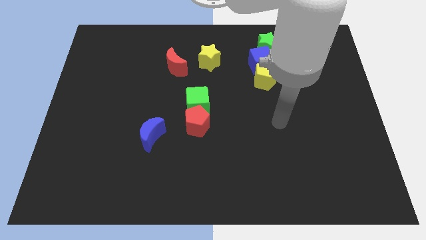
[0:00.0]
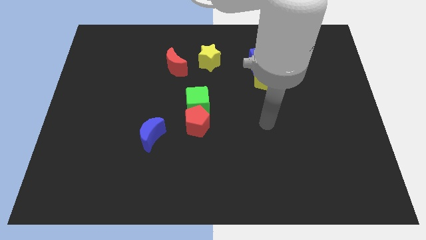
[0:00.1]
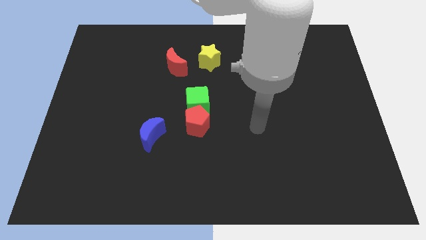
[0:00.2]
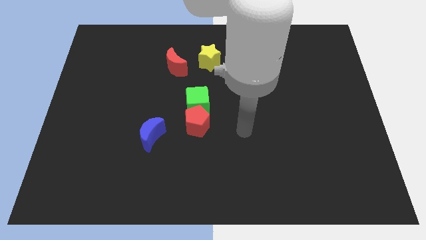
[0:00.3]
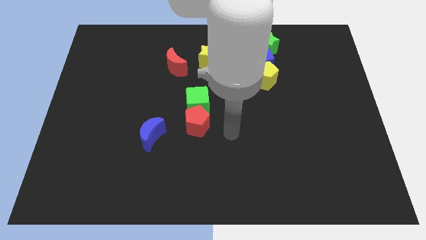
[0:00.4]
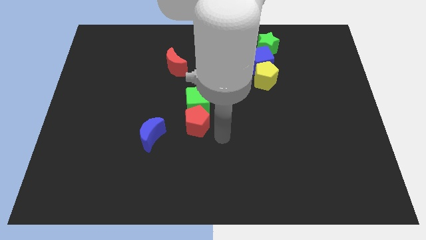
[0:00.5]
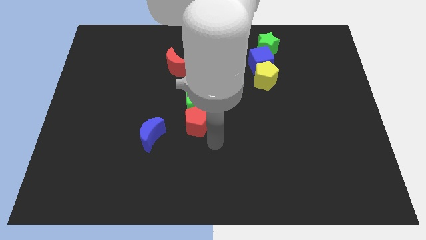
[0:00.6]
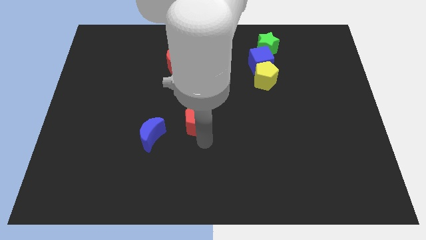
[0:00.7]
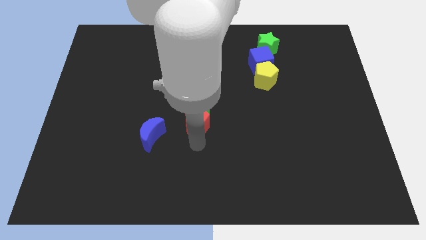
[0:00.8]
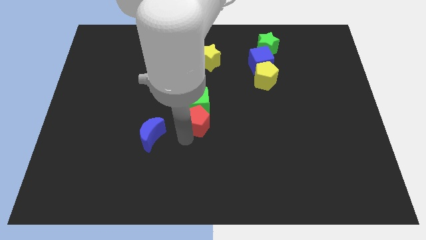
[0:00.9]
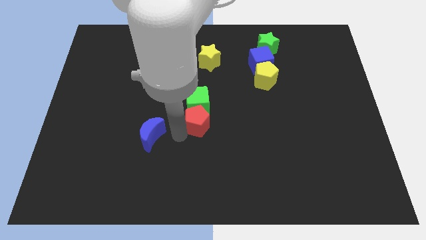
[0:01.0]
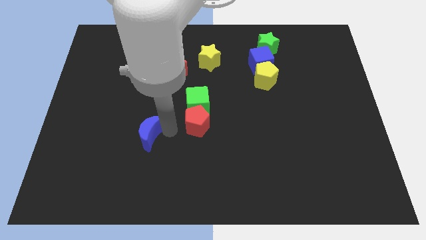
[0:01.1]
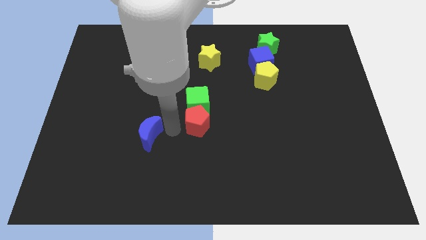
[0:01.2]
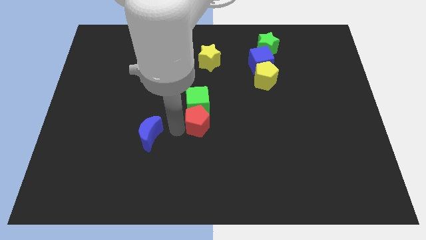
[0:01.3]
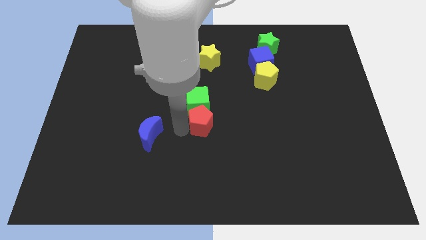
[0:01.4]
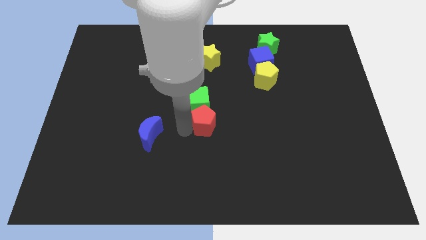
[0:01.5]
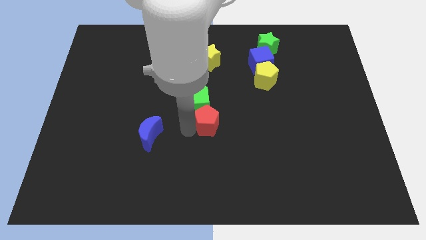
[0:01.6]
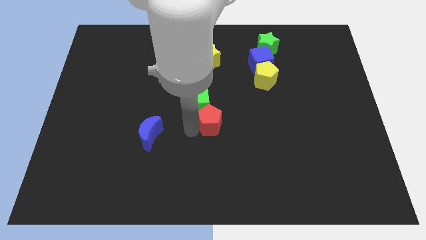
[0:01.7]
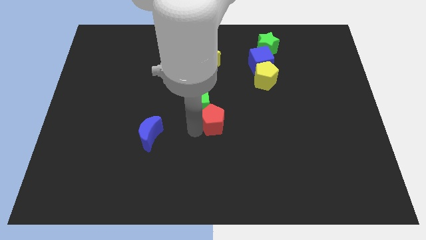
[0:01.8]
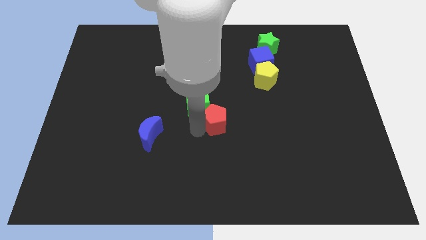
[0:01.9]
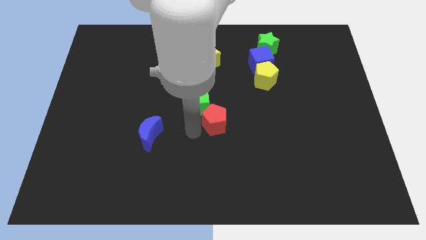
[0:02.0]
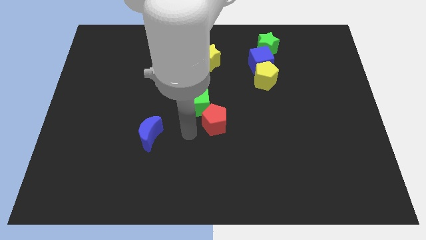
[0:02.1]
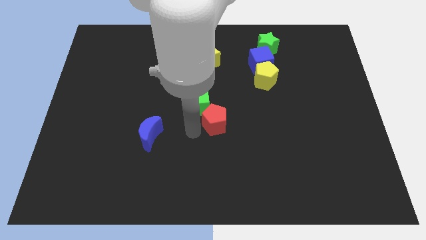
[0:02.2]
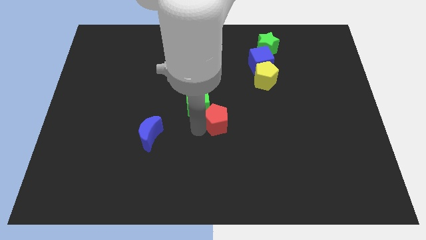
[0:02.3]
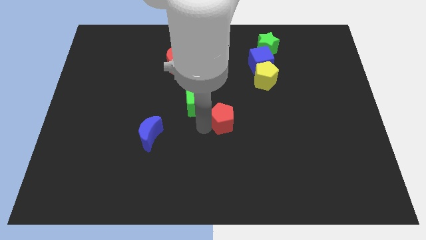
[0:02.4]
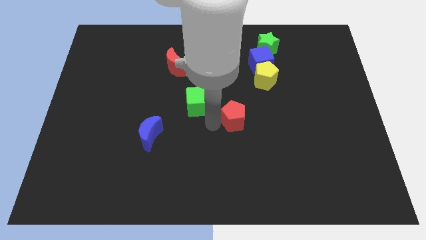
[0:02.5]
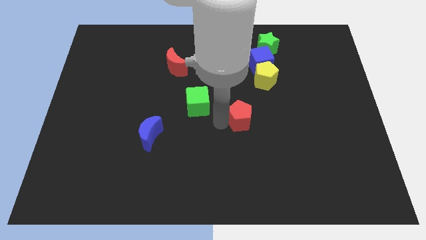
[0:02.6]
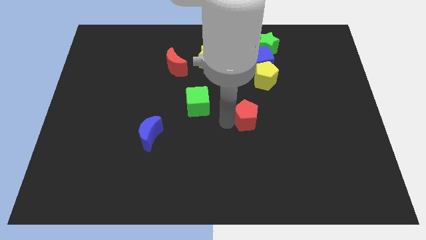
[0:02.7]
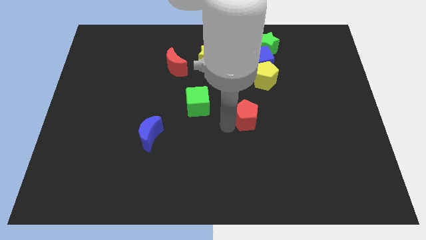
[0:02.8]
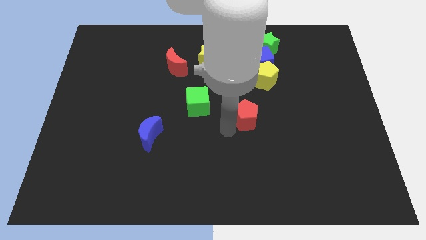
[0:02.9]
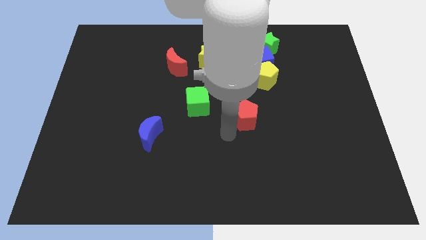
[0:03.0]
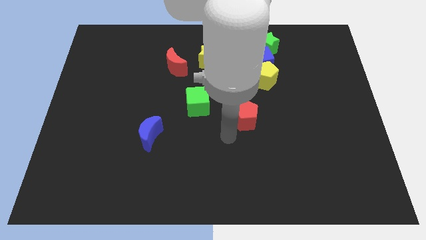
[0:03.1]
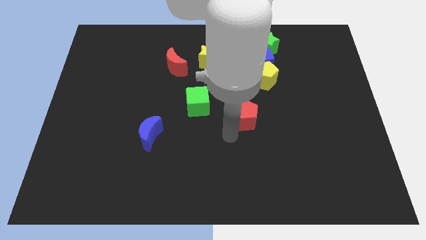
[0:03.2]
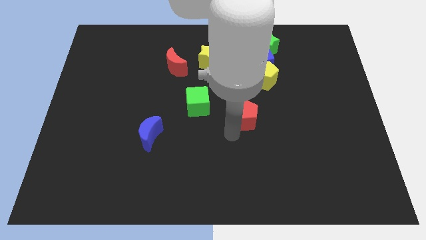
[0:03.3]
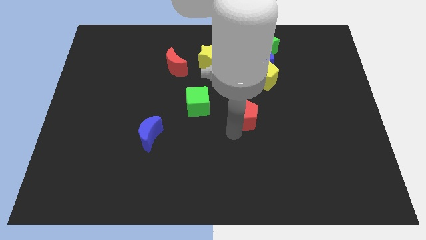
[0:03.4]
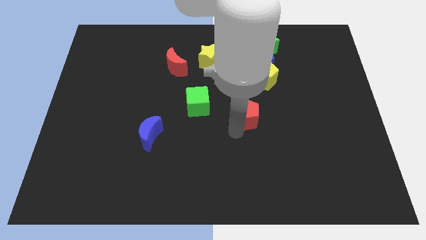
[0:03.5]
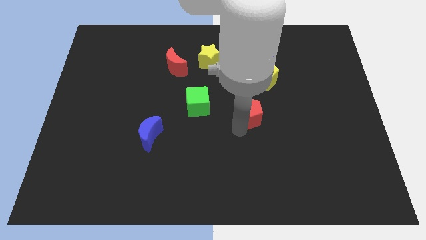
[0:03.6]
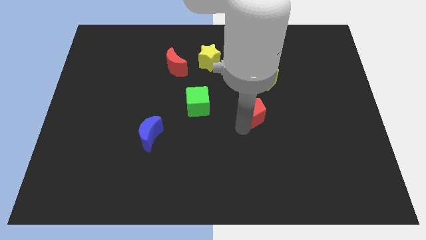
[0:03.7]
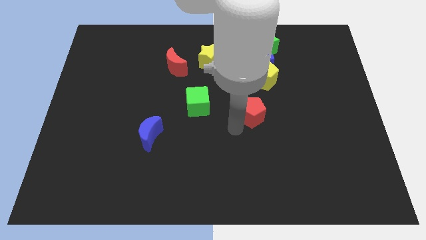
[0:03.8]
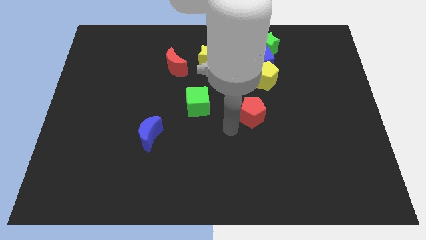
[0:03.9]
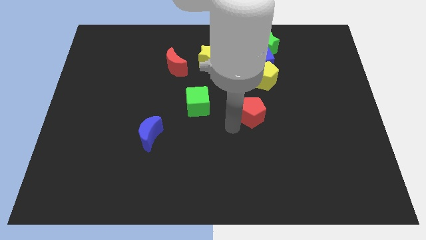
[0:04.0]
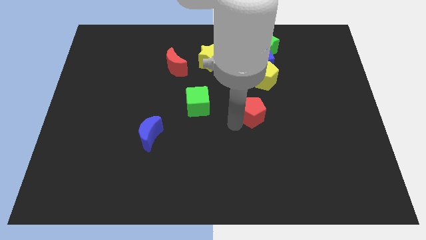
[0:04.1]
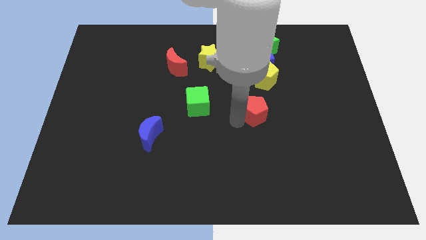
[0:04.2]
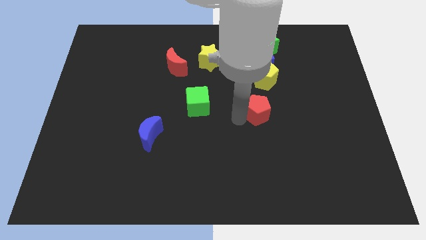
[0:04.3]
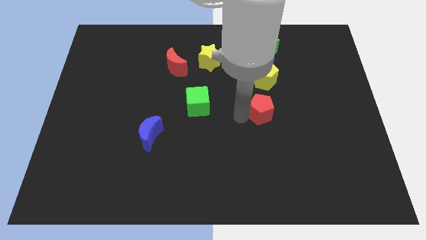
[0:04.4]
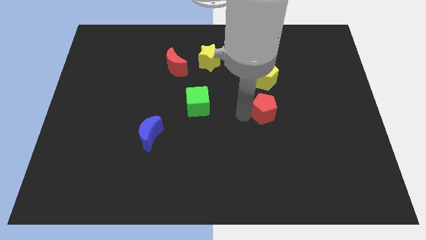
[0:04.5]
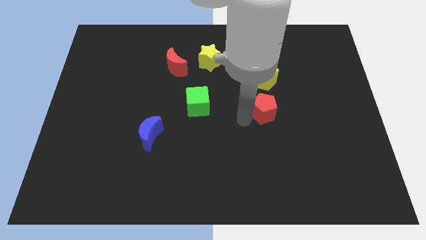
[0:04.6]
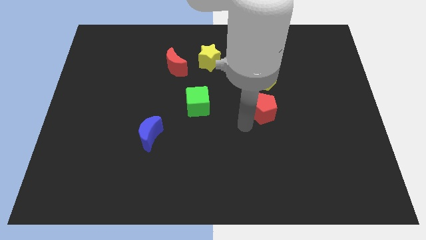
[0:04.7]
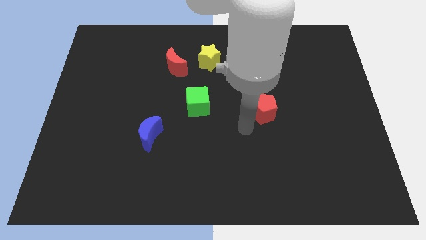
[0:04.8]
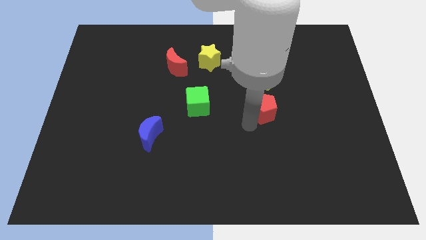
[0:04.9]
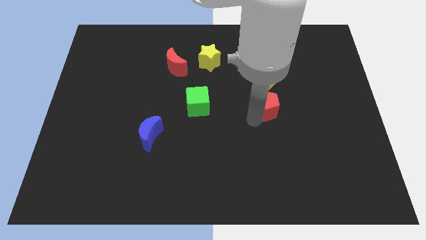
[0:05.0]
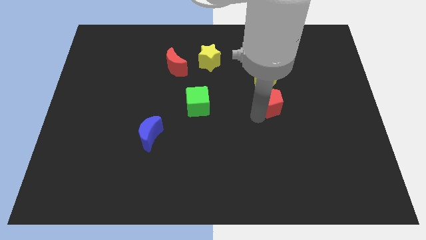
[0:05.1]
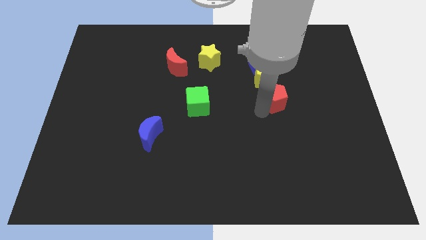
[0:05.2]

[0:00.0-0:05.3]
push the red pentagon to the bottom right side of the yellow pentagon

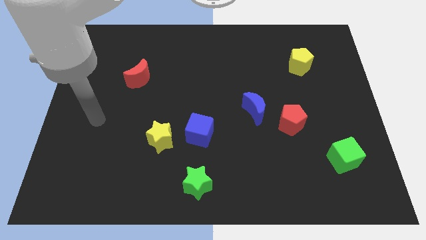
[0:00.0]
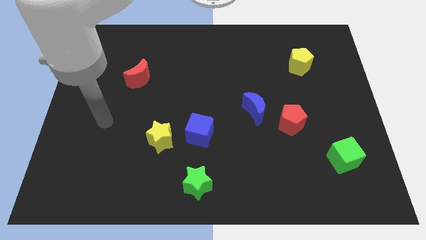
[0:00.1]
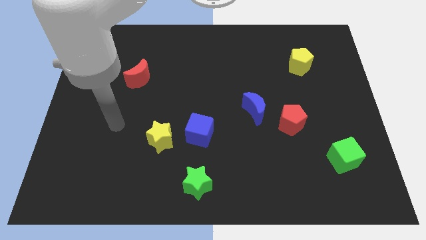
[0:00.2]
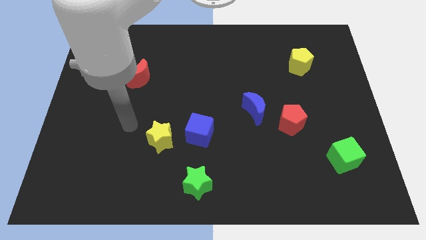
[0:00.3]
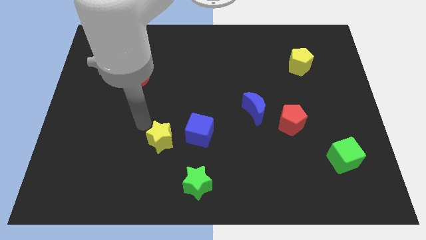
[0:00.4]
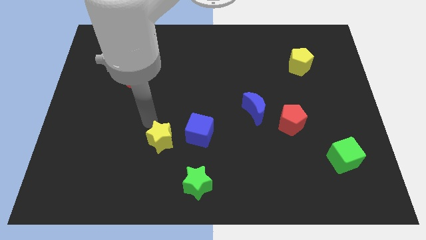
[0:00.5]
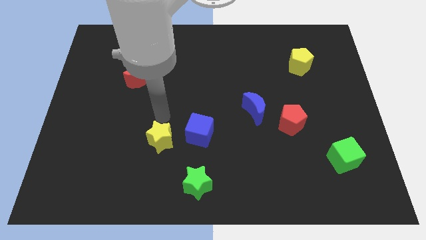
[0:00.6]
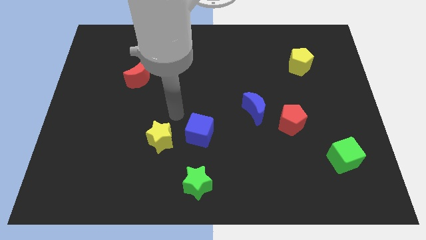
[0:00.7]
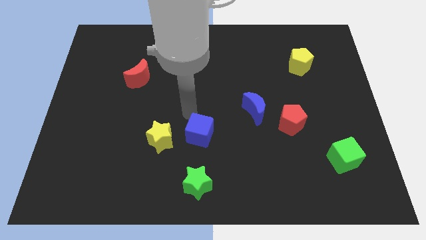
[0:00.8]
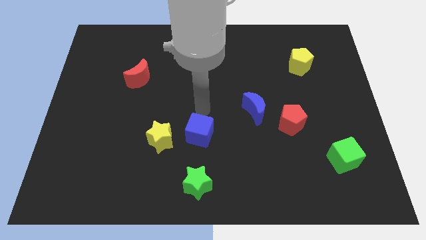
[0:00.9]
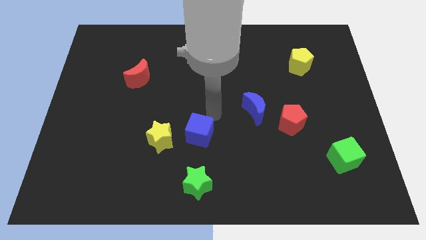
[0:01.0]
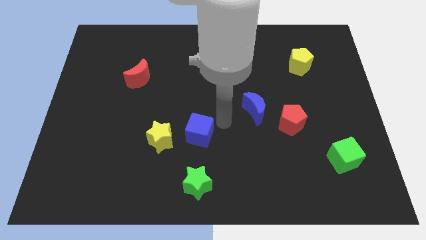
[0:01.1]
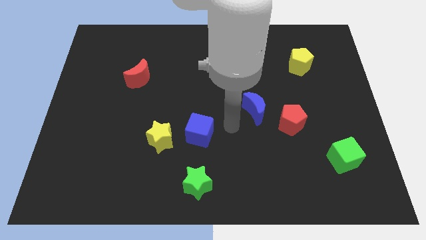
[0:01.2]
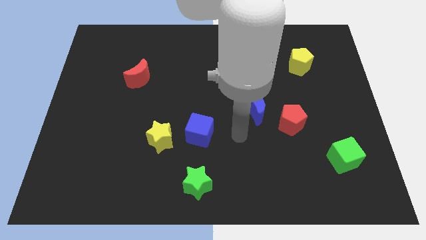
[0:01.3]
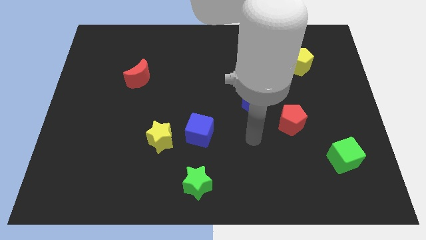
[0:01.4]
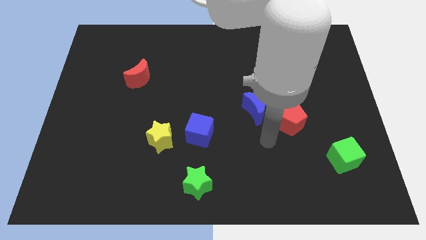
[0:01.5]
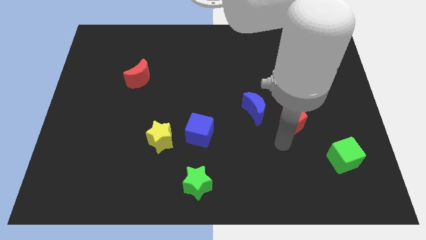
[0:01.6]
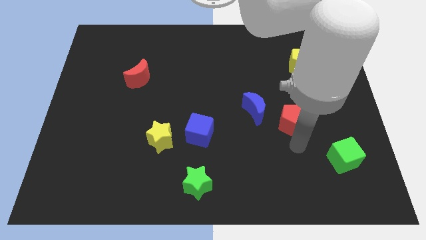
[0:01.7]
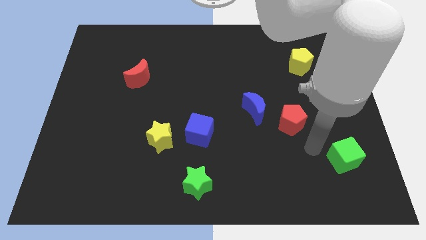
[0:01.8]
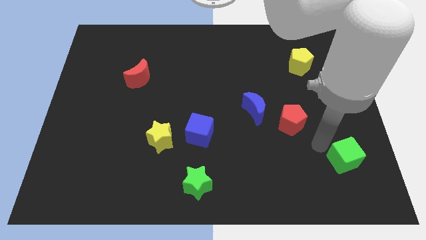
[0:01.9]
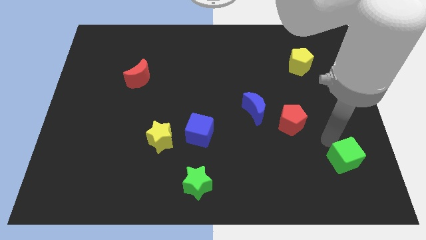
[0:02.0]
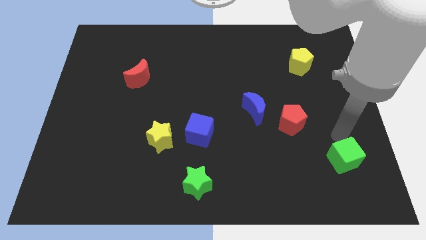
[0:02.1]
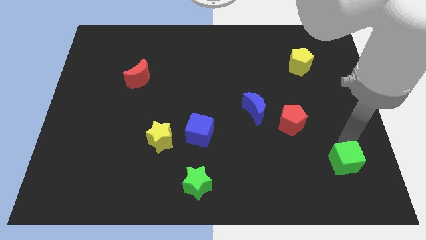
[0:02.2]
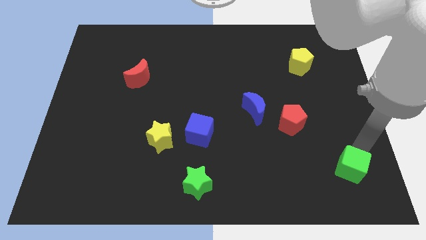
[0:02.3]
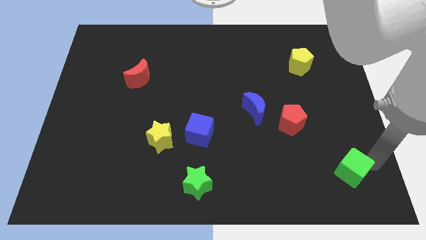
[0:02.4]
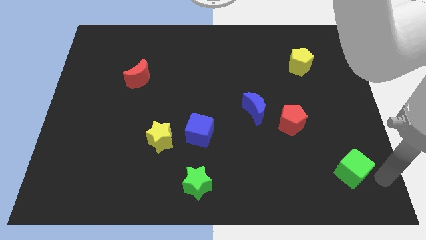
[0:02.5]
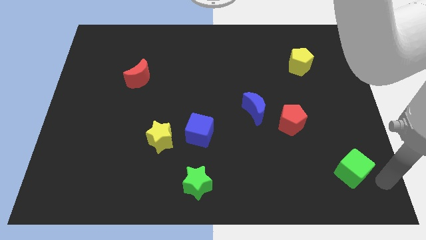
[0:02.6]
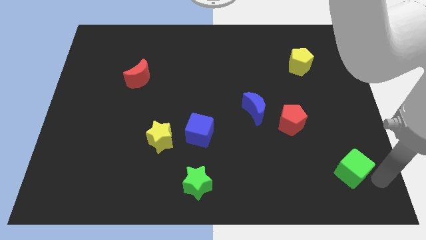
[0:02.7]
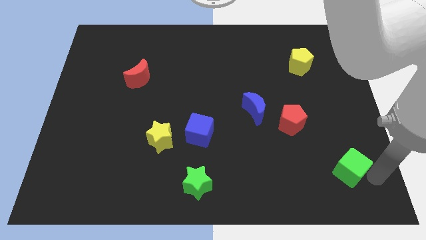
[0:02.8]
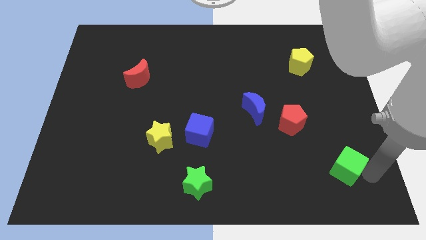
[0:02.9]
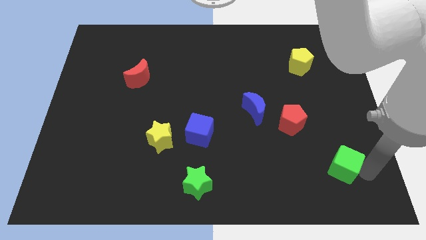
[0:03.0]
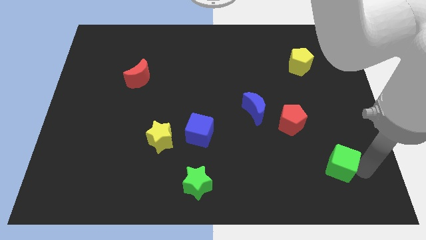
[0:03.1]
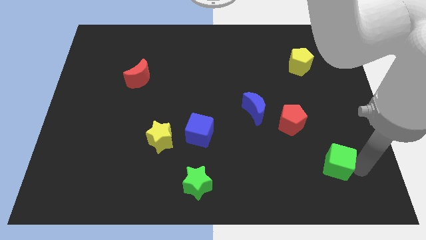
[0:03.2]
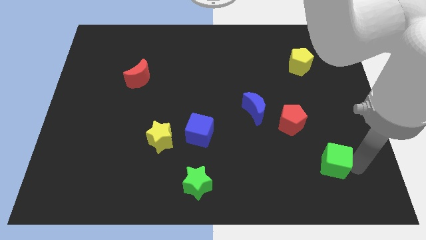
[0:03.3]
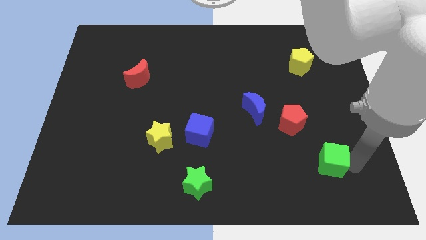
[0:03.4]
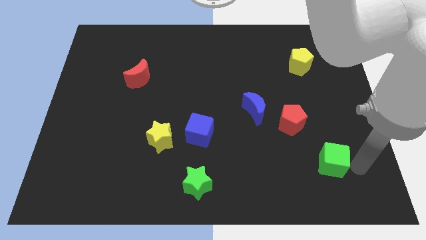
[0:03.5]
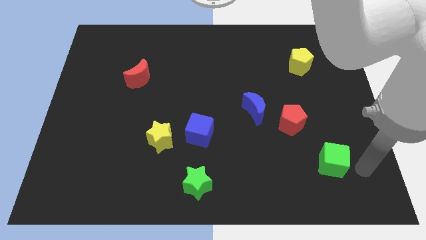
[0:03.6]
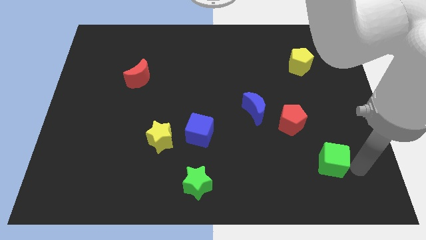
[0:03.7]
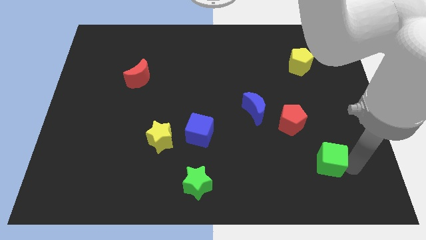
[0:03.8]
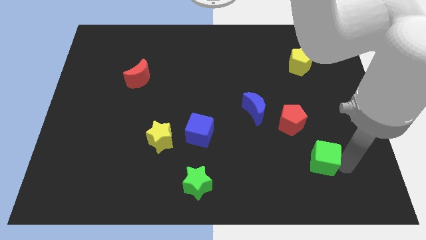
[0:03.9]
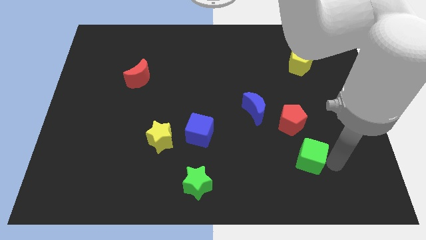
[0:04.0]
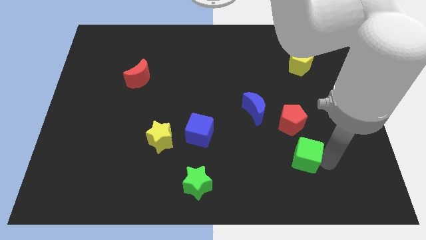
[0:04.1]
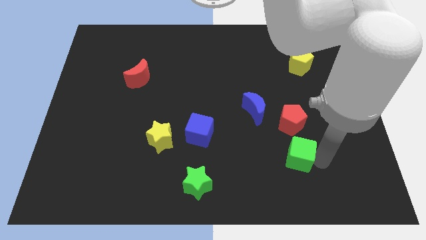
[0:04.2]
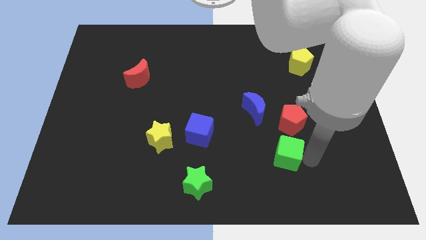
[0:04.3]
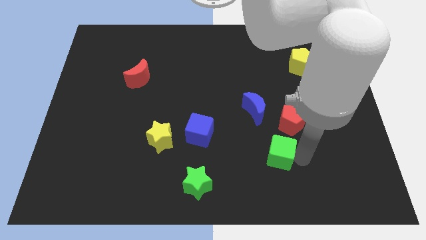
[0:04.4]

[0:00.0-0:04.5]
slide the green cube to the bottom of the blue moon
